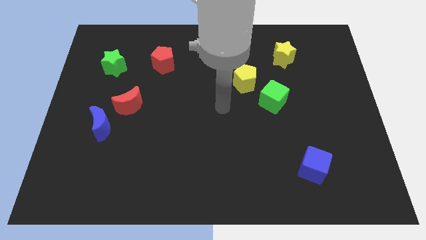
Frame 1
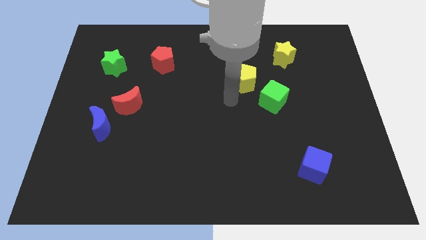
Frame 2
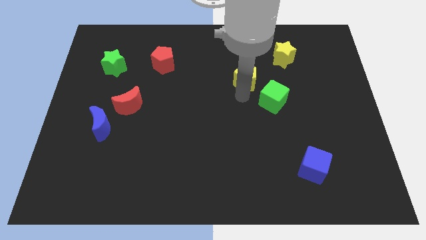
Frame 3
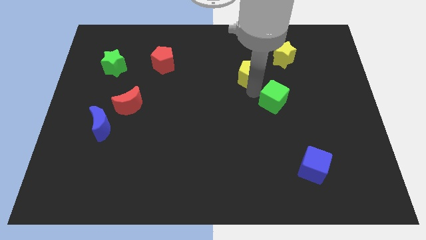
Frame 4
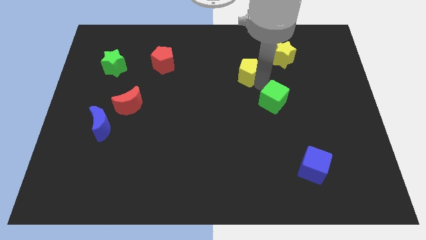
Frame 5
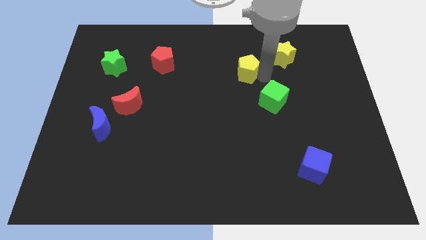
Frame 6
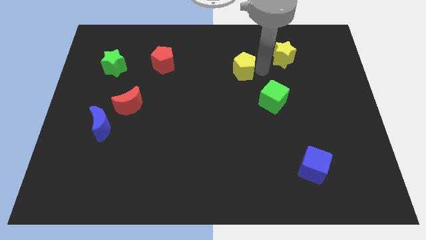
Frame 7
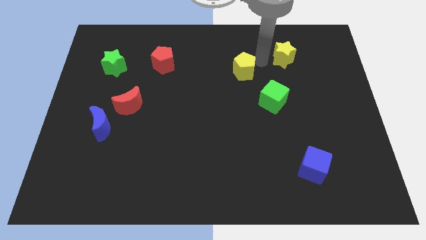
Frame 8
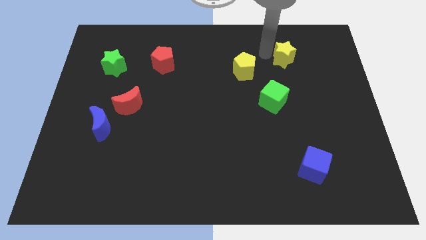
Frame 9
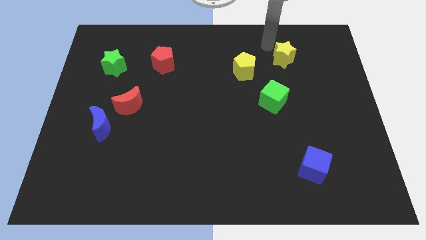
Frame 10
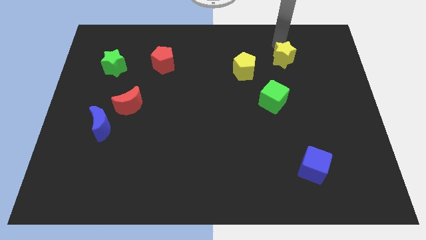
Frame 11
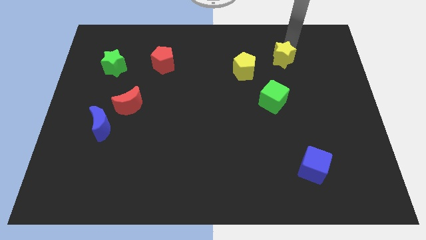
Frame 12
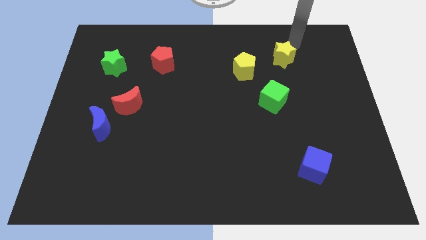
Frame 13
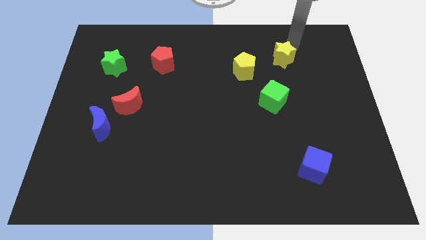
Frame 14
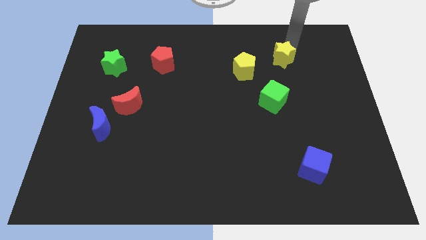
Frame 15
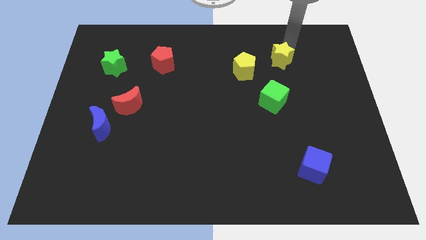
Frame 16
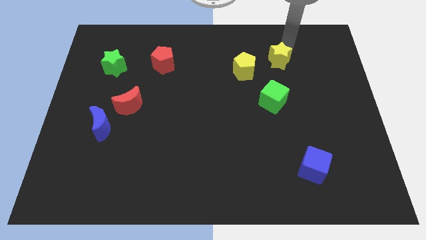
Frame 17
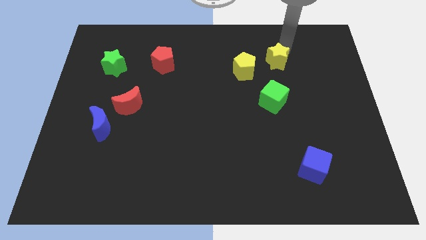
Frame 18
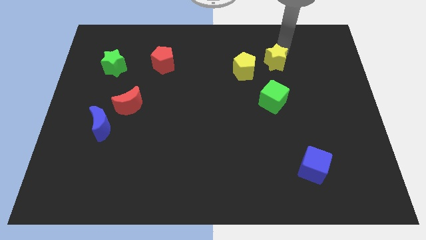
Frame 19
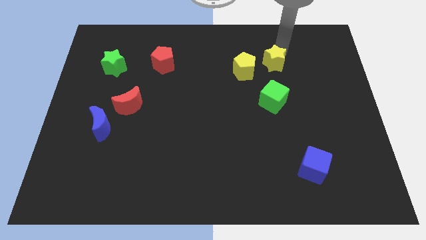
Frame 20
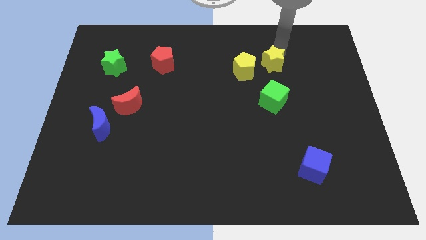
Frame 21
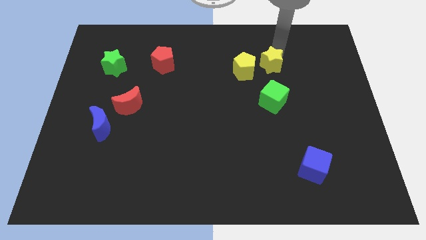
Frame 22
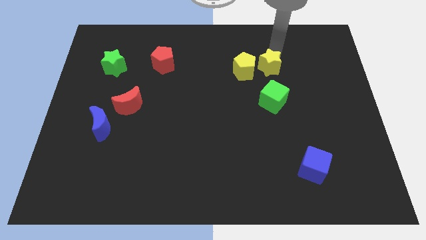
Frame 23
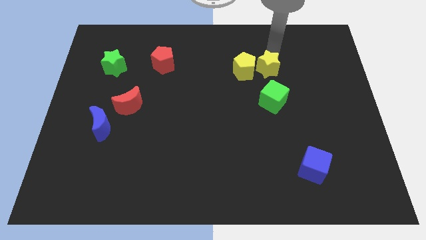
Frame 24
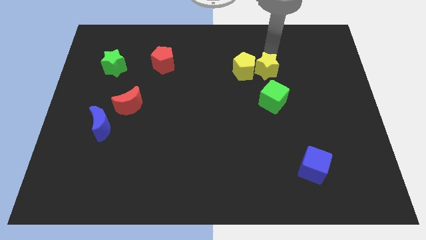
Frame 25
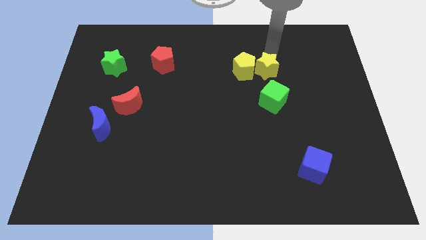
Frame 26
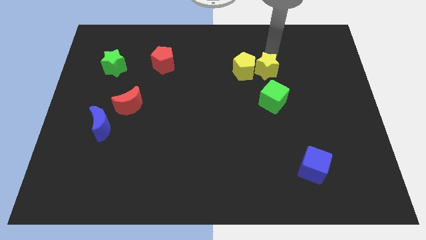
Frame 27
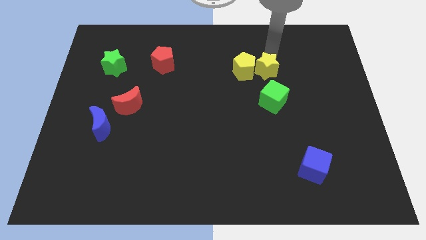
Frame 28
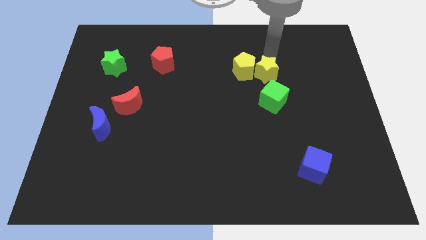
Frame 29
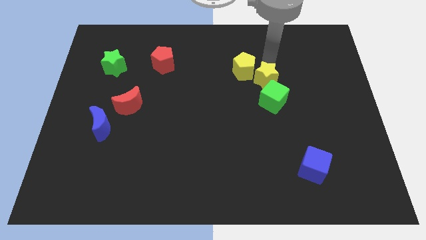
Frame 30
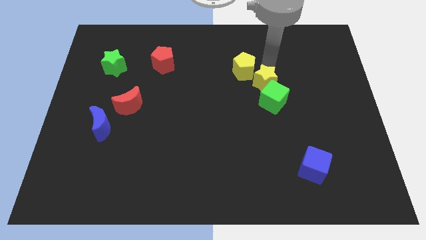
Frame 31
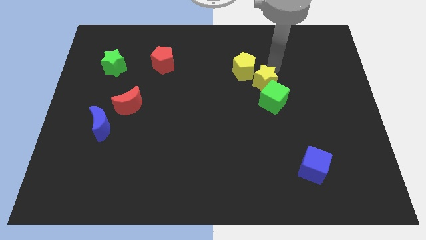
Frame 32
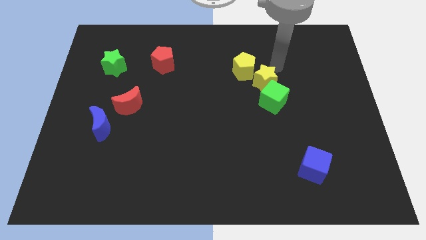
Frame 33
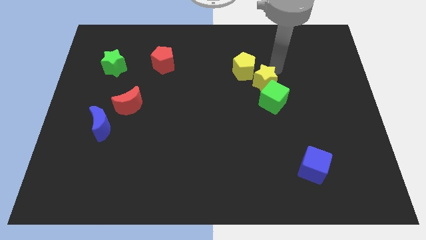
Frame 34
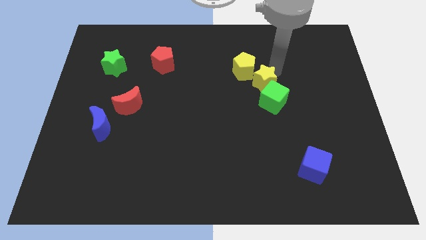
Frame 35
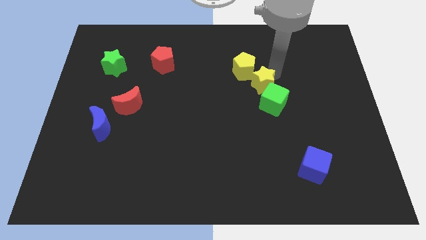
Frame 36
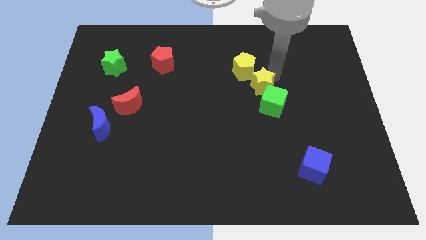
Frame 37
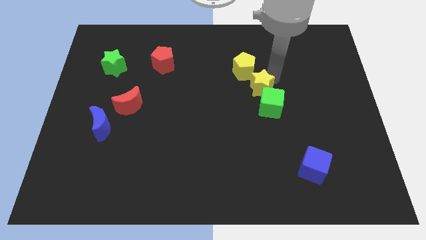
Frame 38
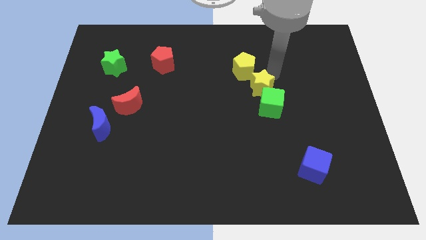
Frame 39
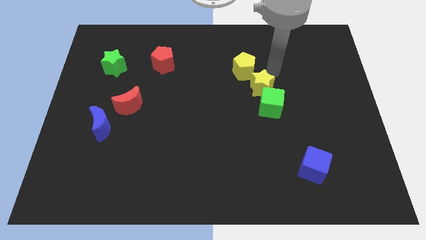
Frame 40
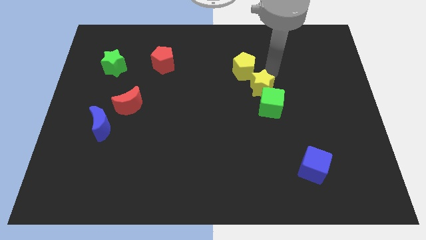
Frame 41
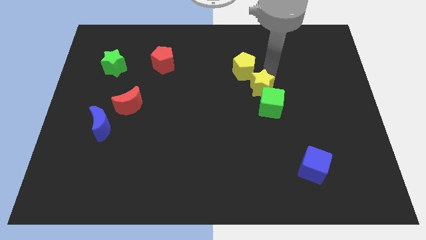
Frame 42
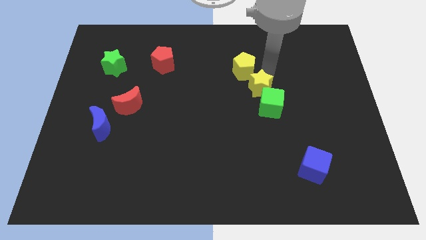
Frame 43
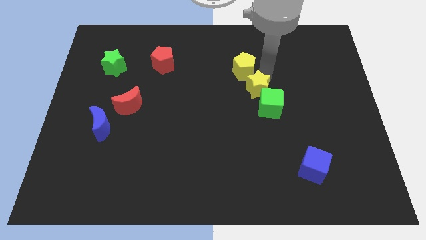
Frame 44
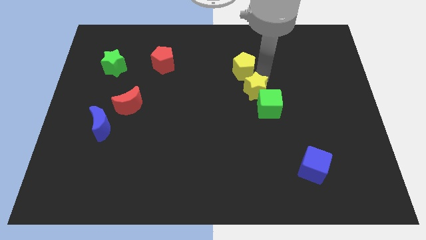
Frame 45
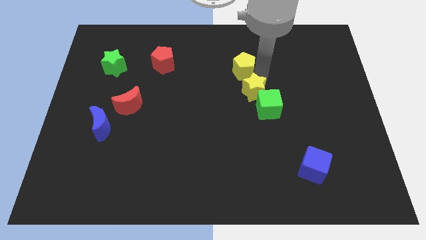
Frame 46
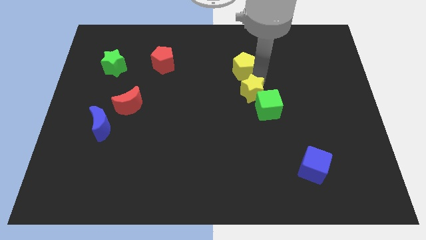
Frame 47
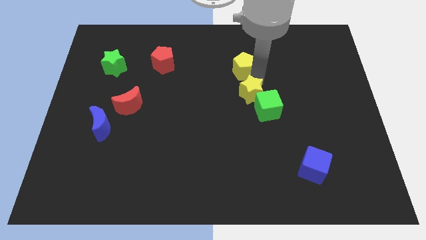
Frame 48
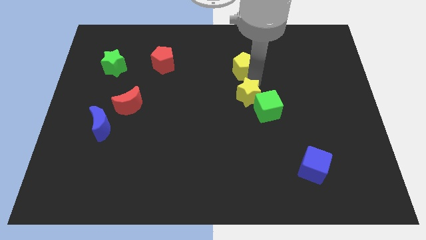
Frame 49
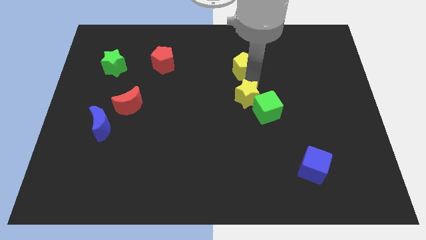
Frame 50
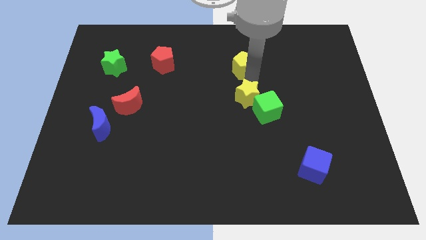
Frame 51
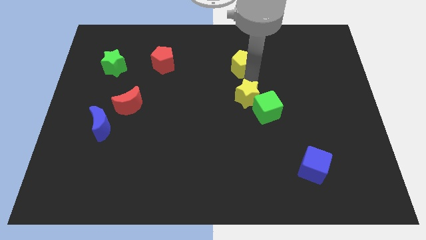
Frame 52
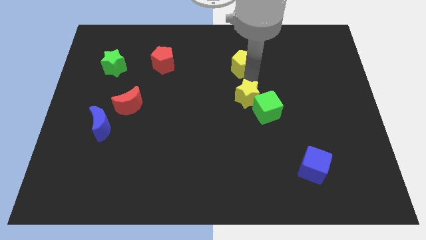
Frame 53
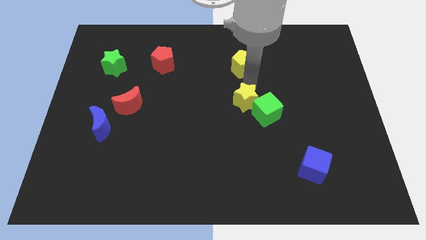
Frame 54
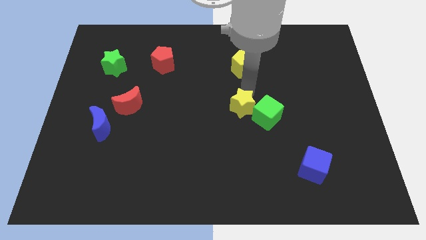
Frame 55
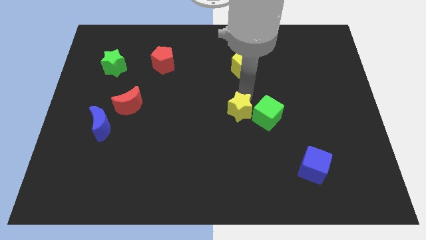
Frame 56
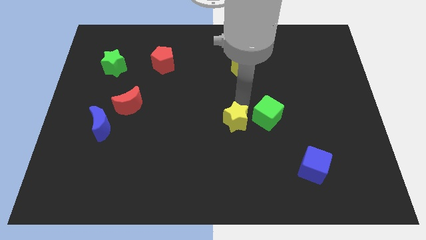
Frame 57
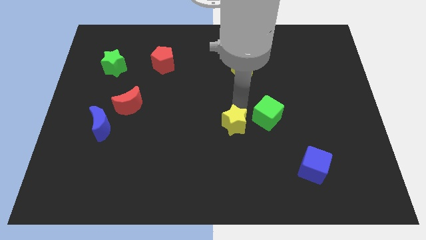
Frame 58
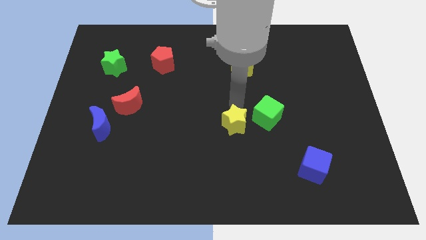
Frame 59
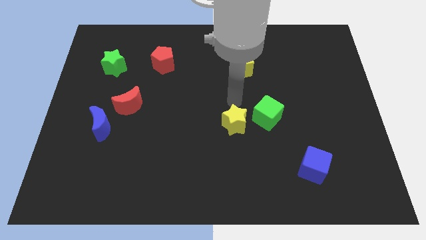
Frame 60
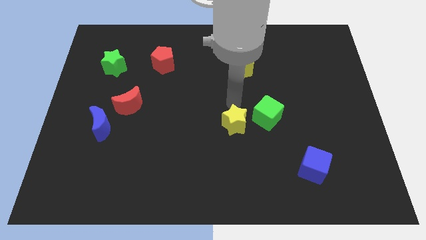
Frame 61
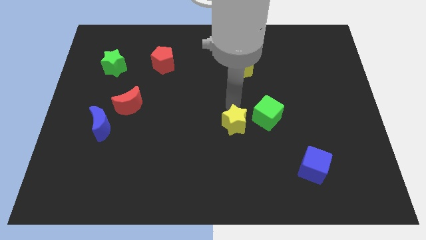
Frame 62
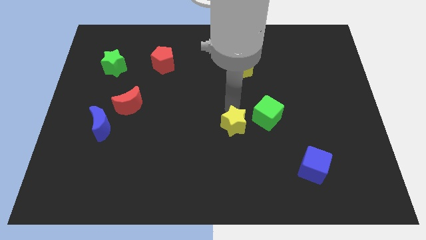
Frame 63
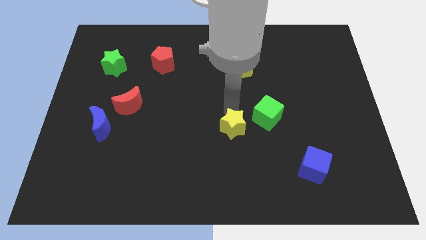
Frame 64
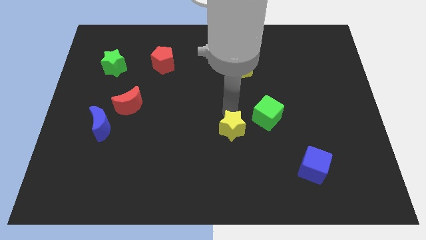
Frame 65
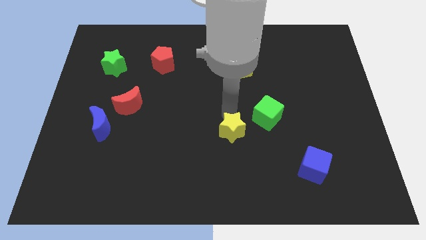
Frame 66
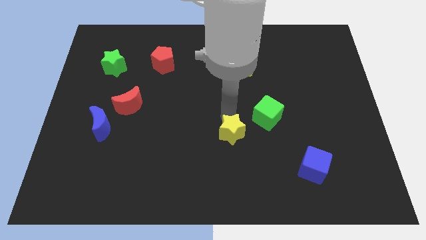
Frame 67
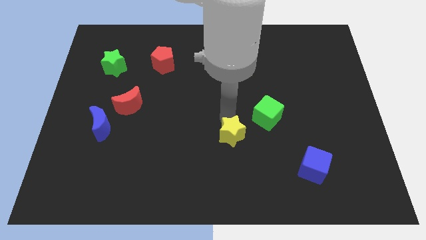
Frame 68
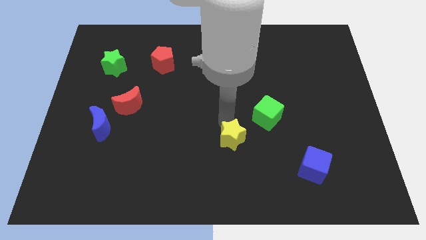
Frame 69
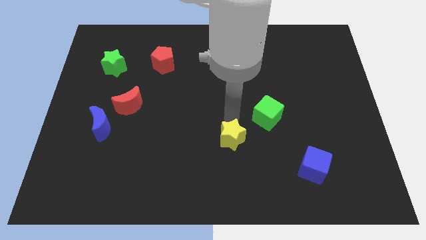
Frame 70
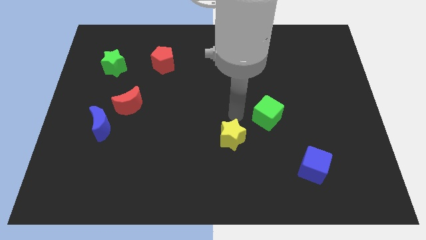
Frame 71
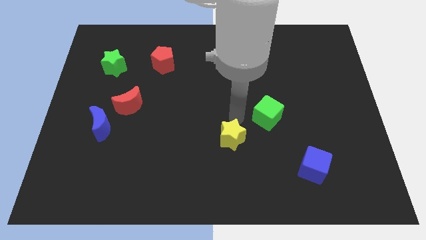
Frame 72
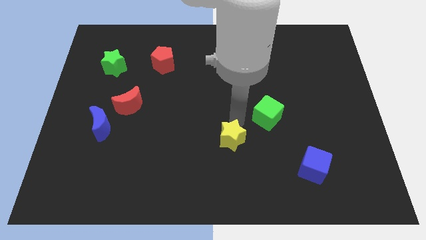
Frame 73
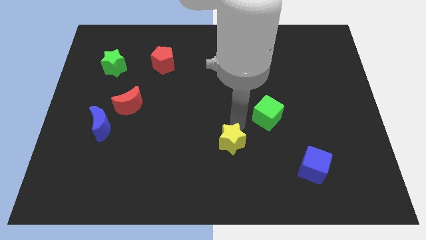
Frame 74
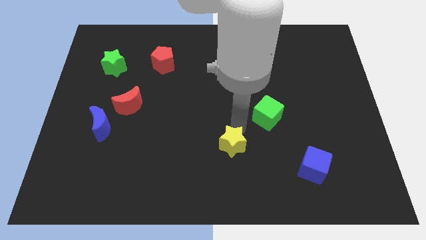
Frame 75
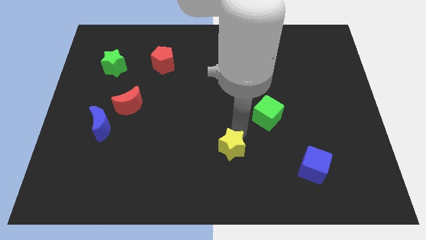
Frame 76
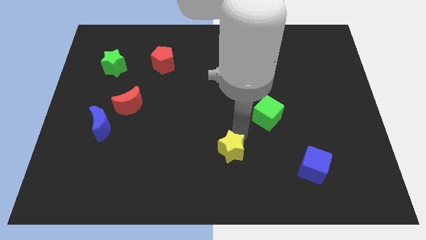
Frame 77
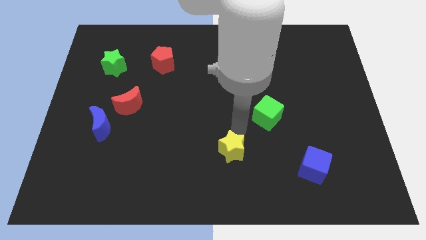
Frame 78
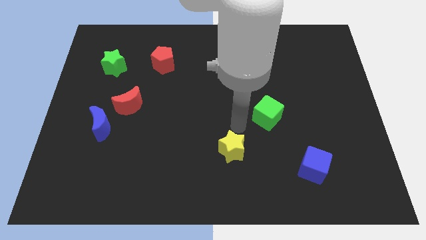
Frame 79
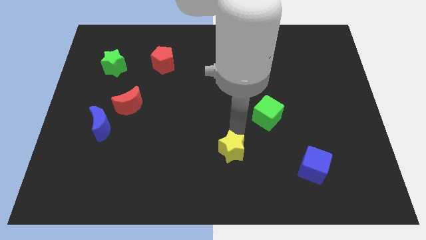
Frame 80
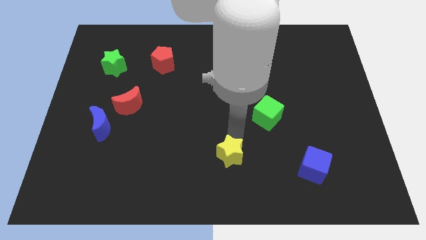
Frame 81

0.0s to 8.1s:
put the yellow star to the bottom side
